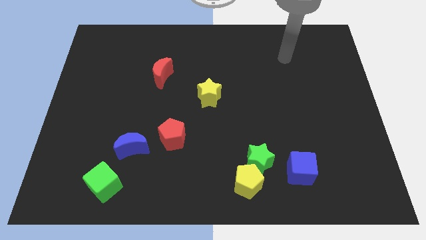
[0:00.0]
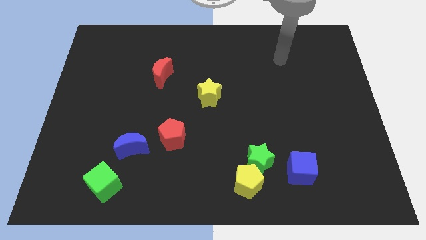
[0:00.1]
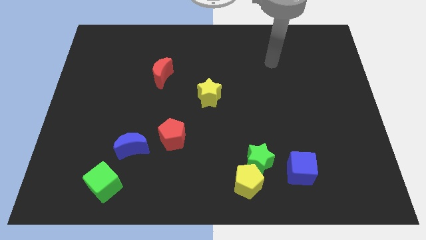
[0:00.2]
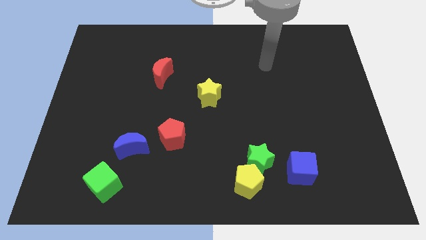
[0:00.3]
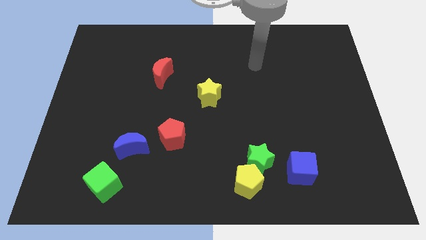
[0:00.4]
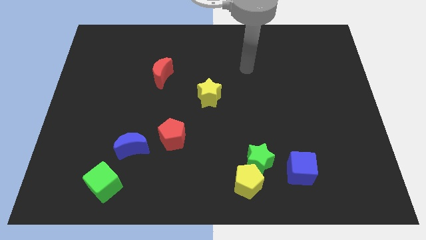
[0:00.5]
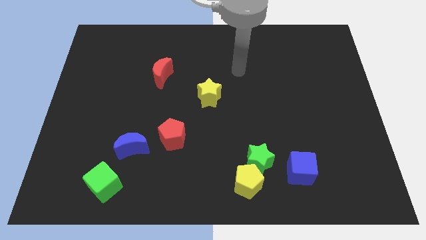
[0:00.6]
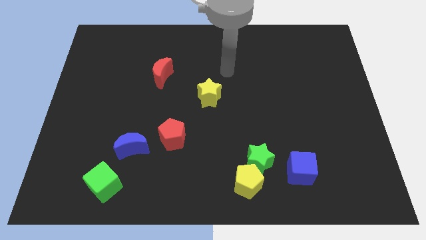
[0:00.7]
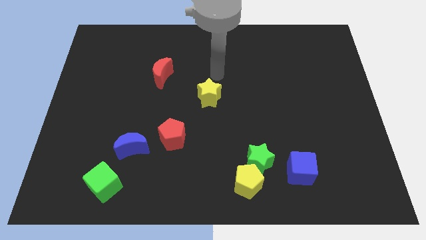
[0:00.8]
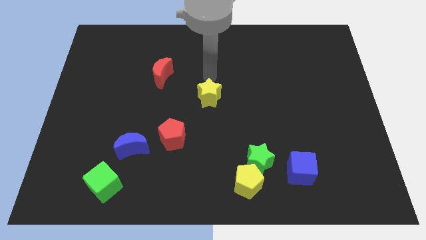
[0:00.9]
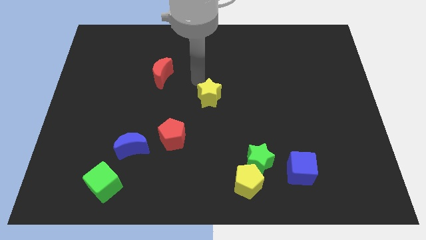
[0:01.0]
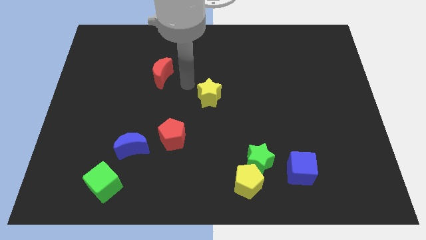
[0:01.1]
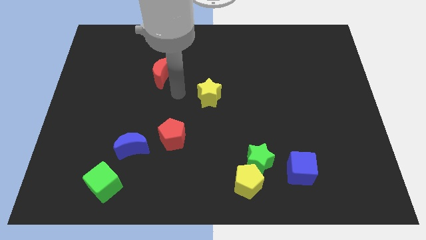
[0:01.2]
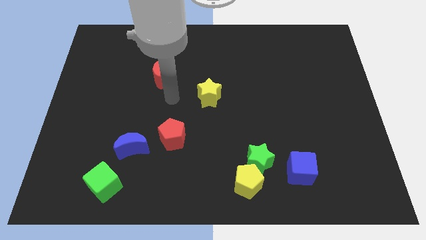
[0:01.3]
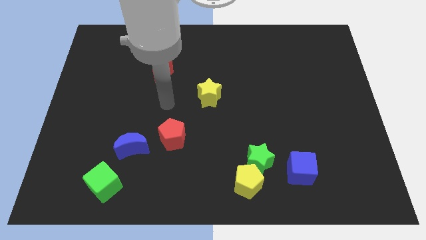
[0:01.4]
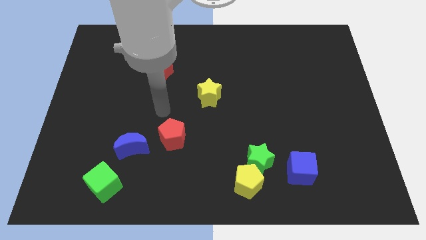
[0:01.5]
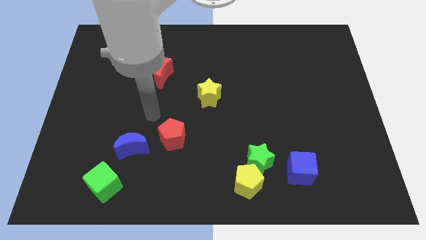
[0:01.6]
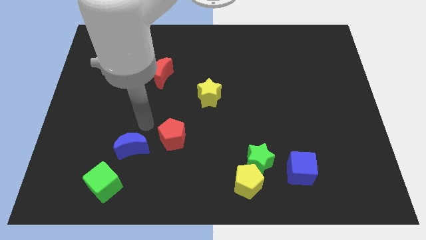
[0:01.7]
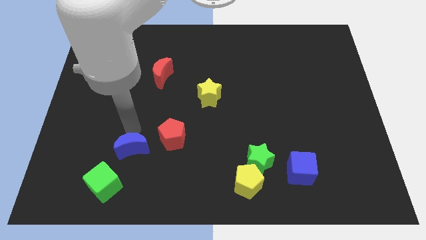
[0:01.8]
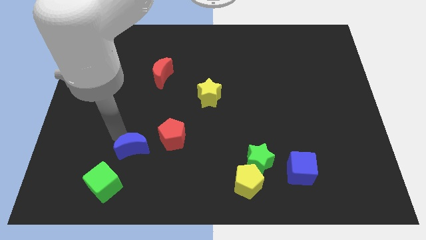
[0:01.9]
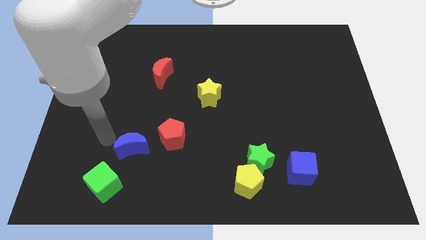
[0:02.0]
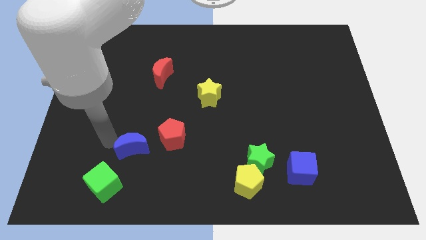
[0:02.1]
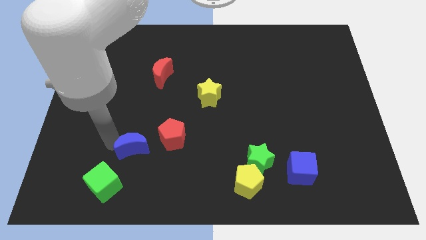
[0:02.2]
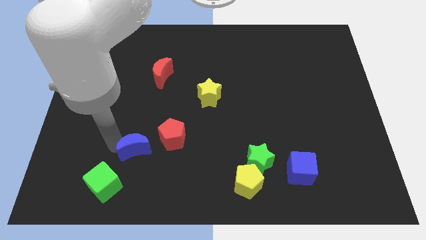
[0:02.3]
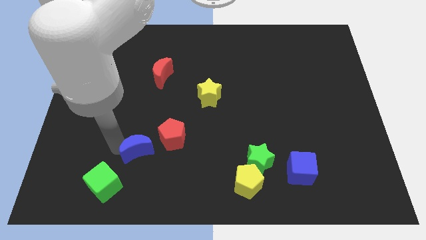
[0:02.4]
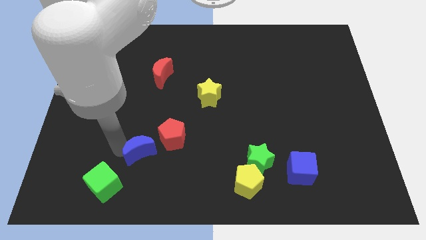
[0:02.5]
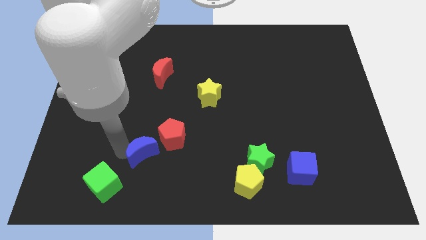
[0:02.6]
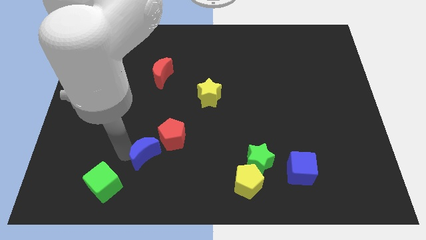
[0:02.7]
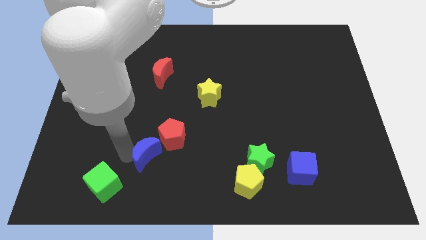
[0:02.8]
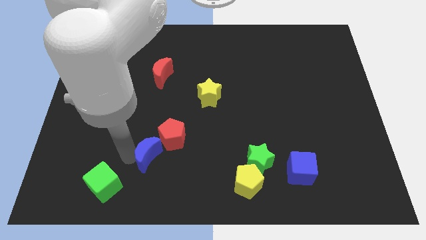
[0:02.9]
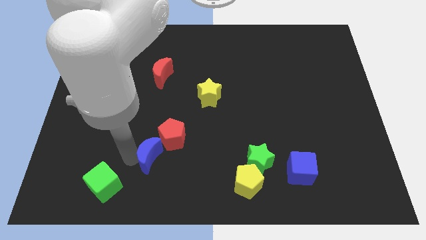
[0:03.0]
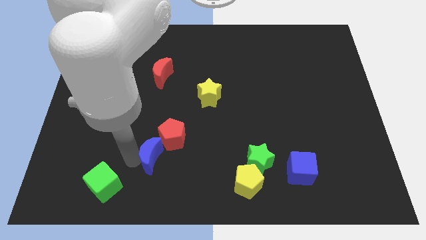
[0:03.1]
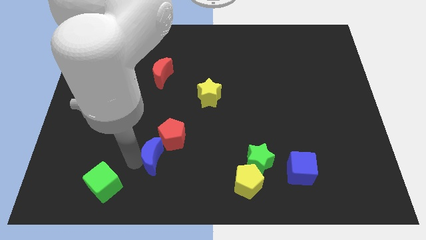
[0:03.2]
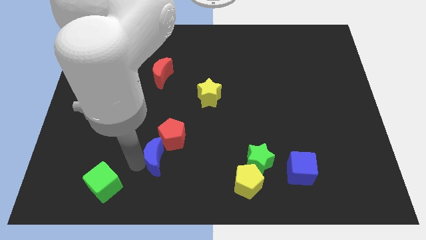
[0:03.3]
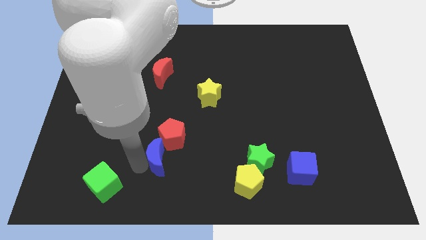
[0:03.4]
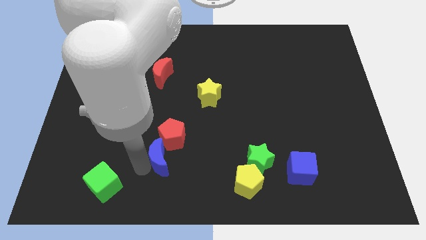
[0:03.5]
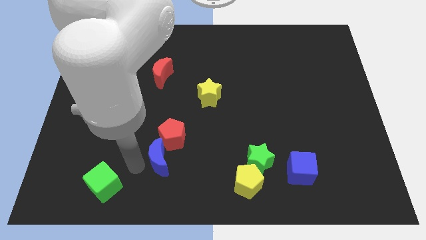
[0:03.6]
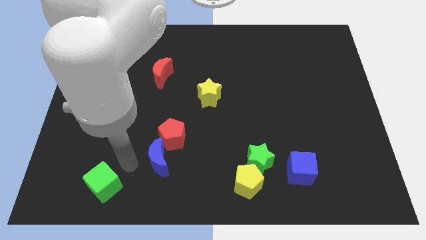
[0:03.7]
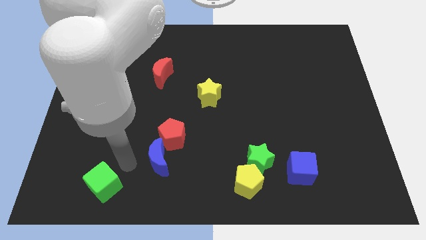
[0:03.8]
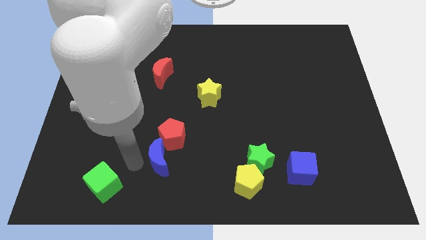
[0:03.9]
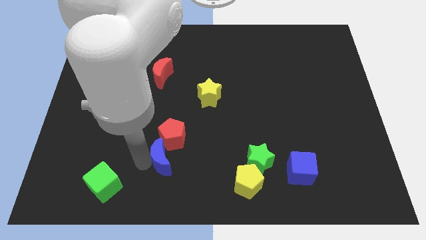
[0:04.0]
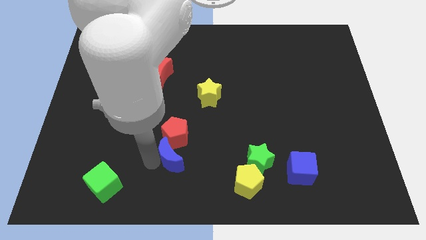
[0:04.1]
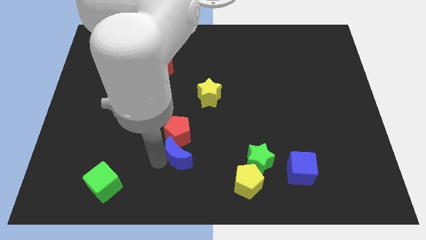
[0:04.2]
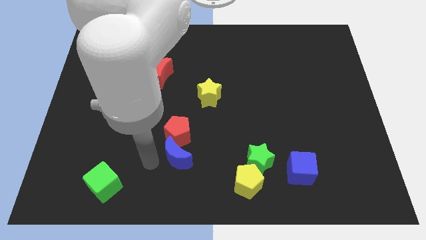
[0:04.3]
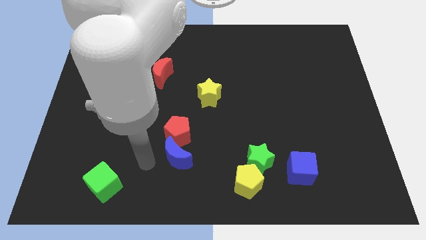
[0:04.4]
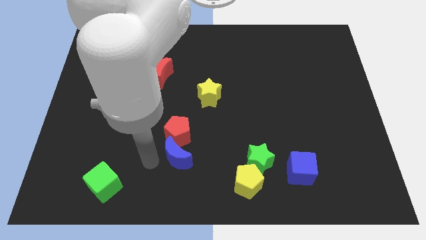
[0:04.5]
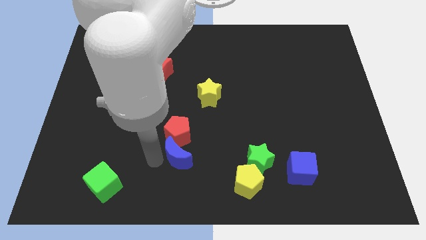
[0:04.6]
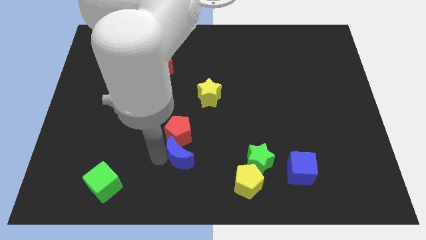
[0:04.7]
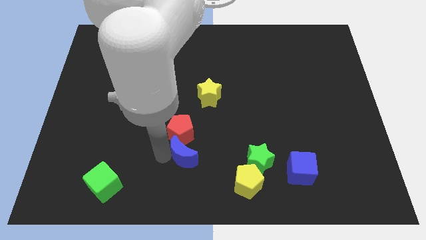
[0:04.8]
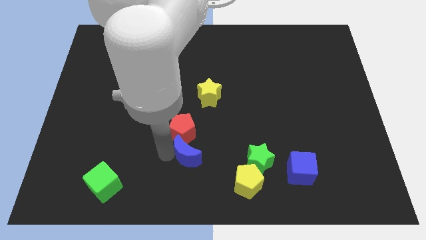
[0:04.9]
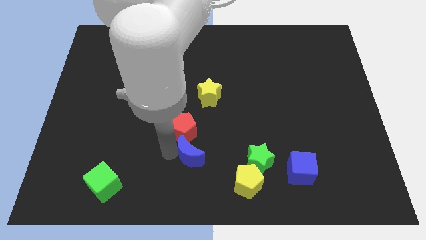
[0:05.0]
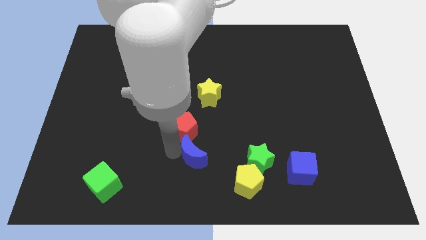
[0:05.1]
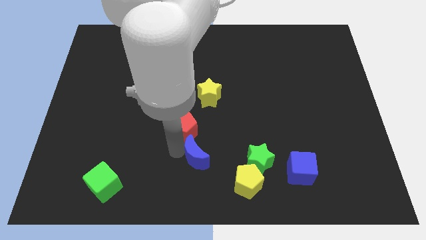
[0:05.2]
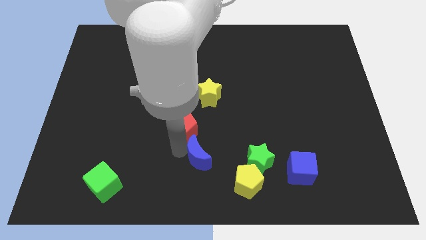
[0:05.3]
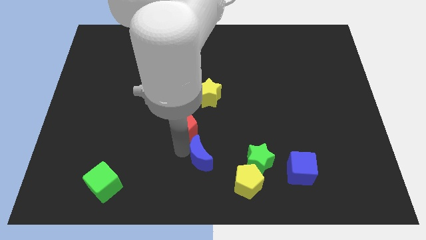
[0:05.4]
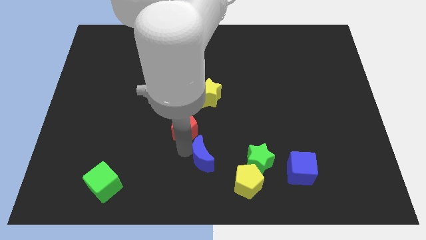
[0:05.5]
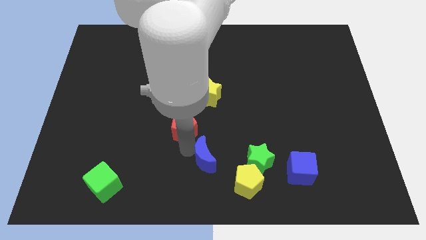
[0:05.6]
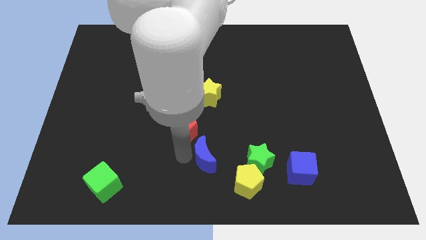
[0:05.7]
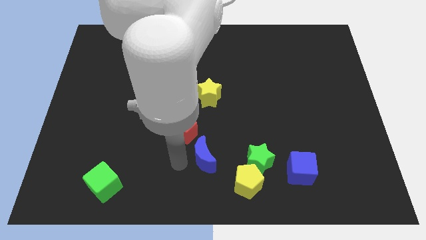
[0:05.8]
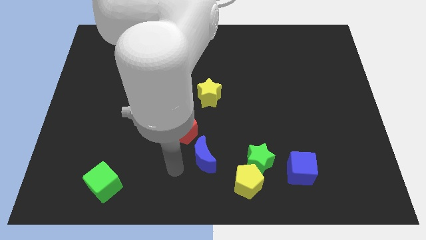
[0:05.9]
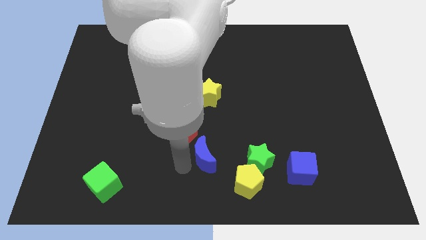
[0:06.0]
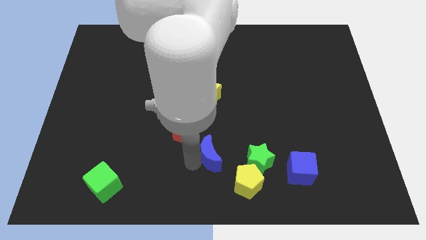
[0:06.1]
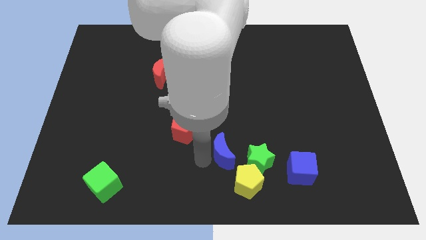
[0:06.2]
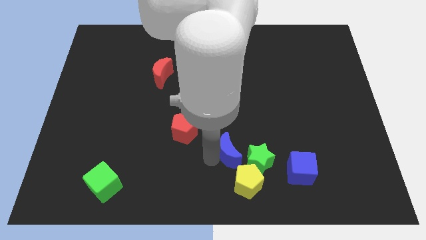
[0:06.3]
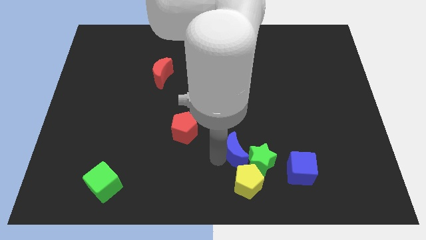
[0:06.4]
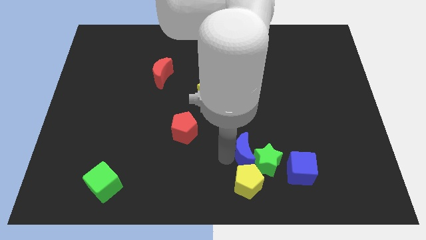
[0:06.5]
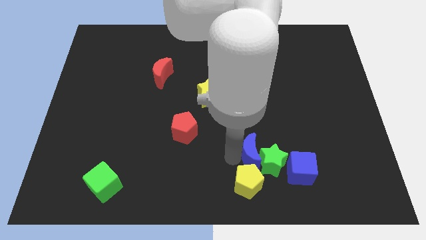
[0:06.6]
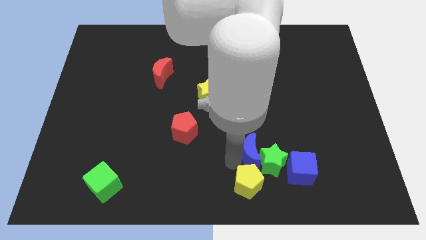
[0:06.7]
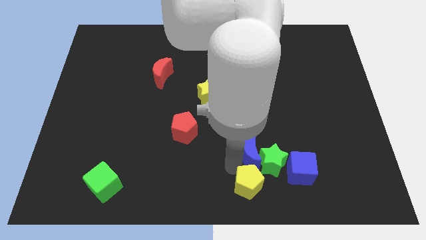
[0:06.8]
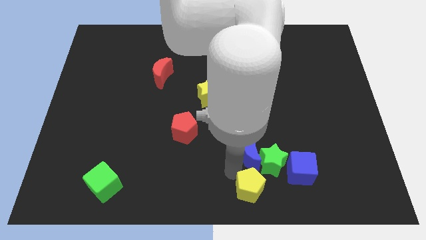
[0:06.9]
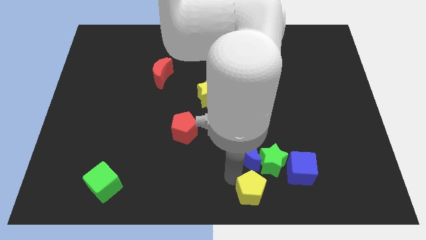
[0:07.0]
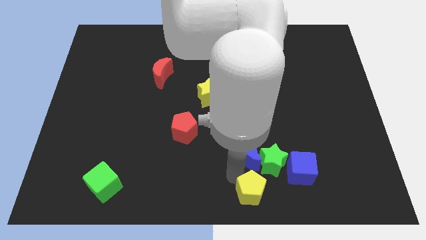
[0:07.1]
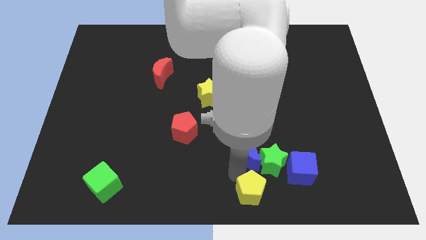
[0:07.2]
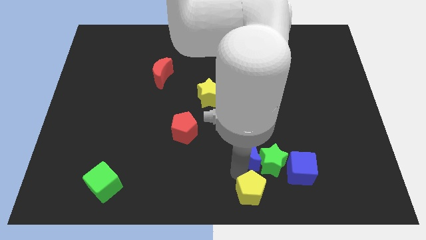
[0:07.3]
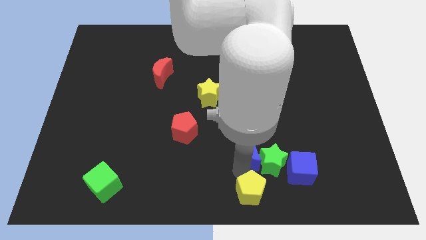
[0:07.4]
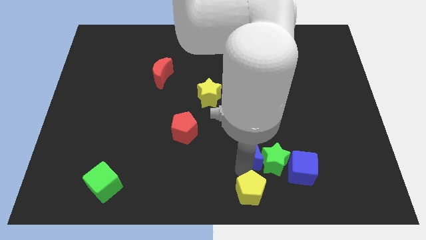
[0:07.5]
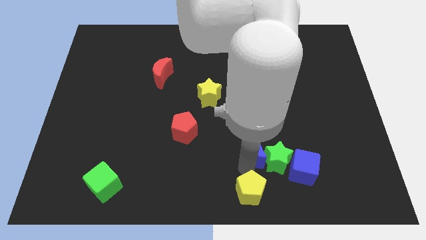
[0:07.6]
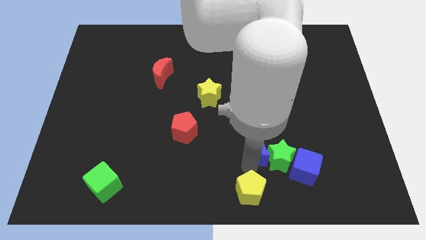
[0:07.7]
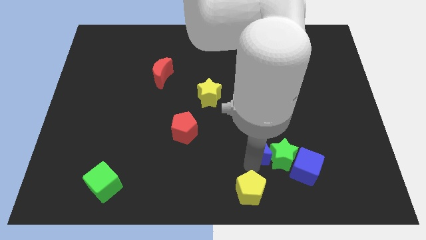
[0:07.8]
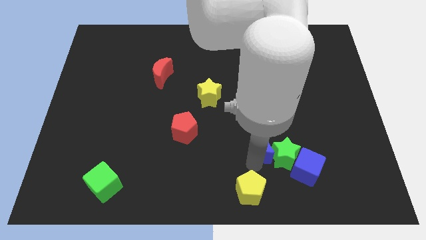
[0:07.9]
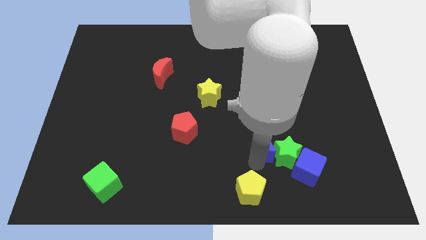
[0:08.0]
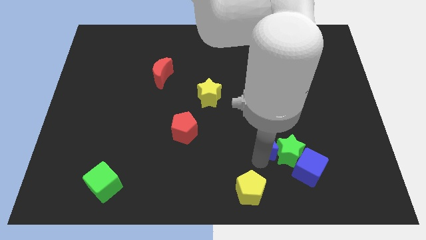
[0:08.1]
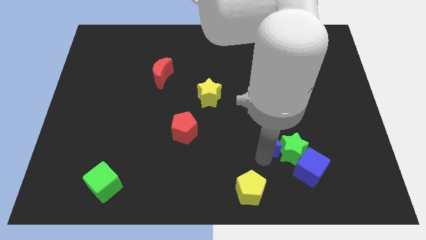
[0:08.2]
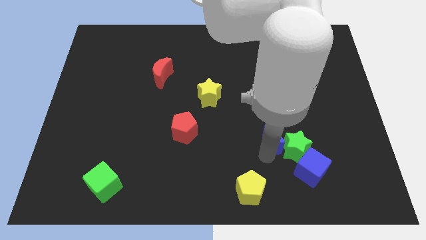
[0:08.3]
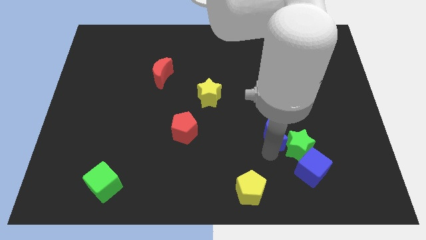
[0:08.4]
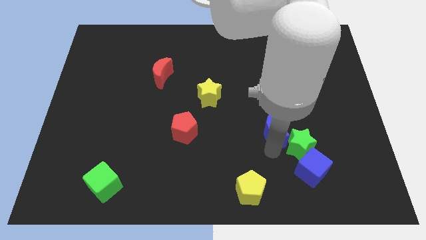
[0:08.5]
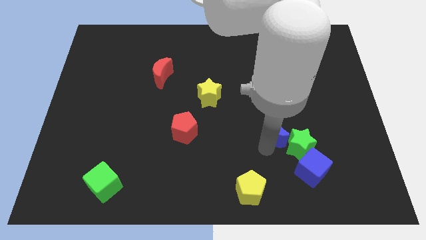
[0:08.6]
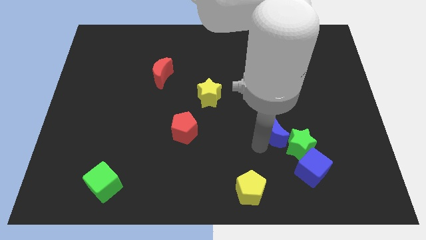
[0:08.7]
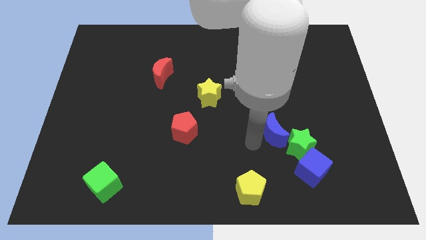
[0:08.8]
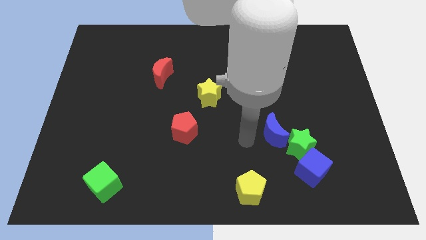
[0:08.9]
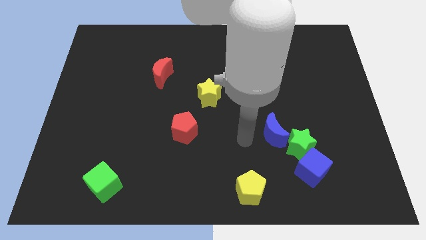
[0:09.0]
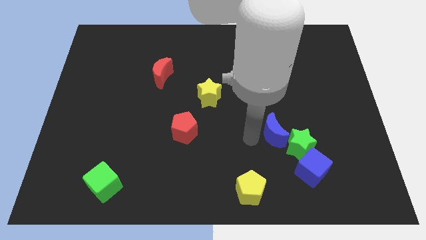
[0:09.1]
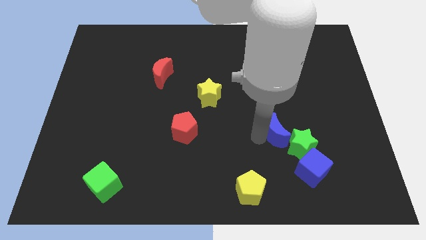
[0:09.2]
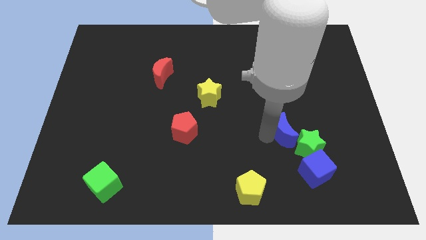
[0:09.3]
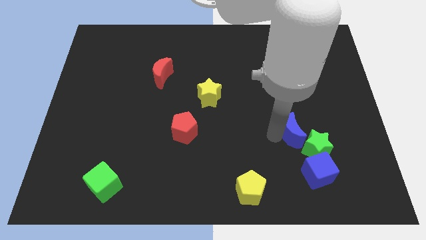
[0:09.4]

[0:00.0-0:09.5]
slide the blue moon to the top of the blue cube
